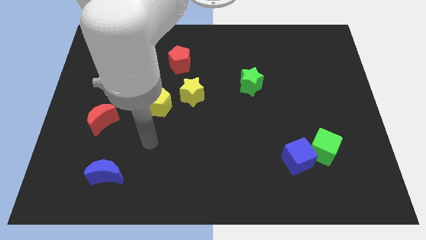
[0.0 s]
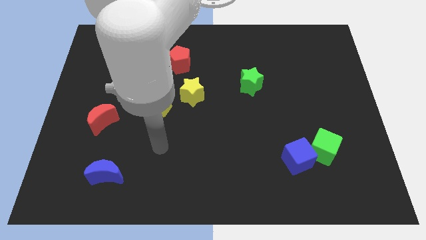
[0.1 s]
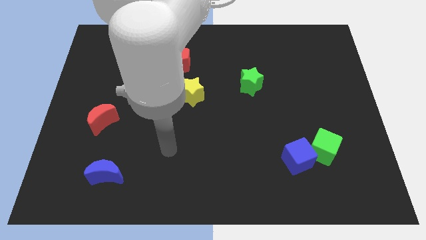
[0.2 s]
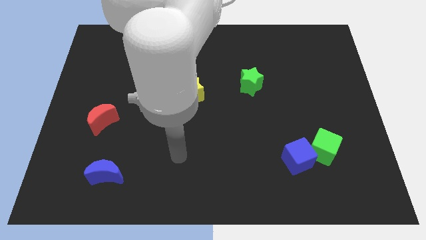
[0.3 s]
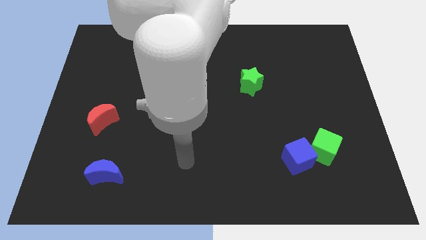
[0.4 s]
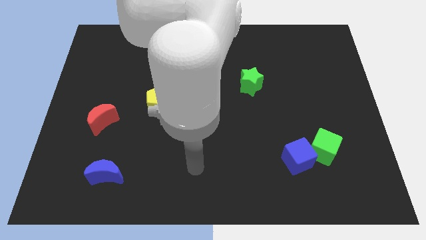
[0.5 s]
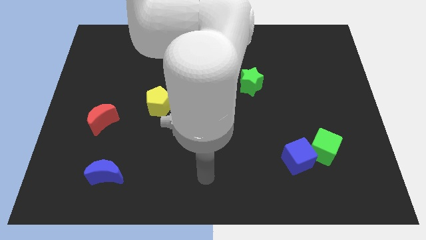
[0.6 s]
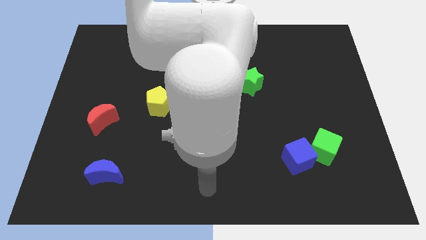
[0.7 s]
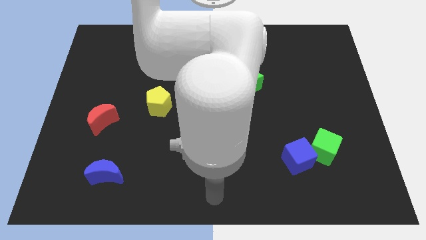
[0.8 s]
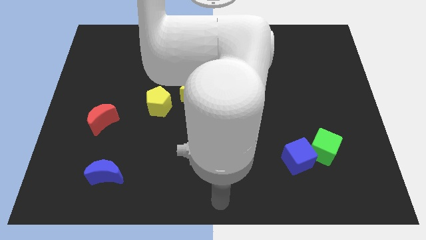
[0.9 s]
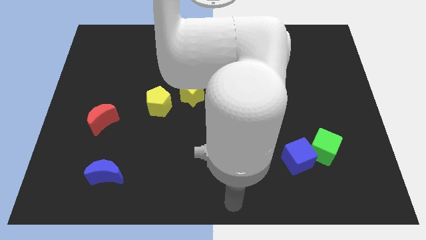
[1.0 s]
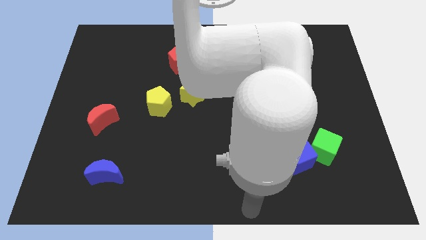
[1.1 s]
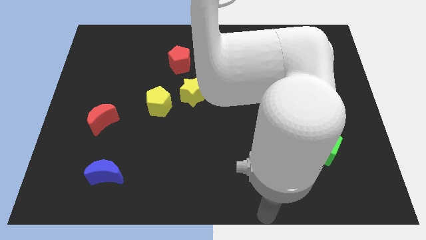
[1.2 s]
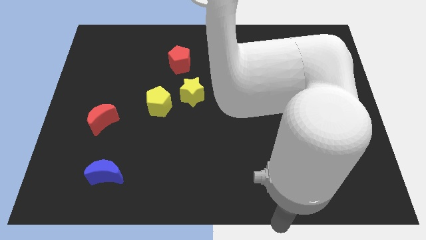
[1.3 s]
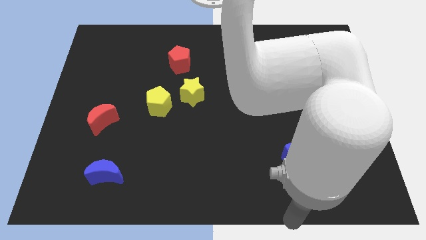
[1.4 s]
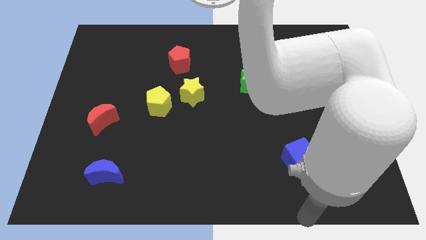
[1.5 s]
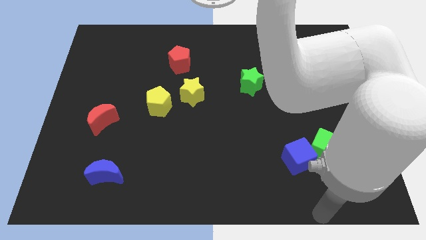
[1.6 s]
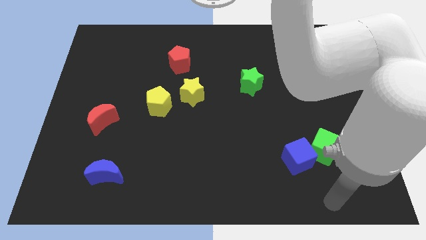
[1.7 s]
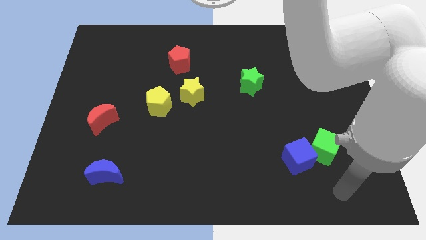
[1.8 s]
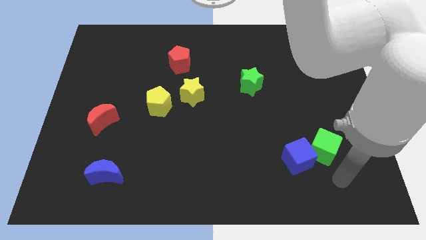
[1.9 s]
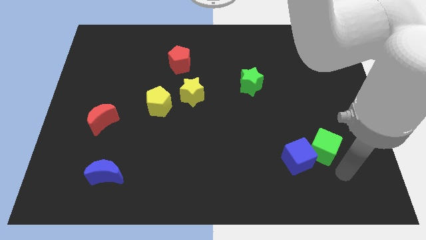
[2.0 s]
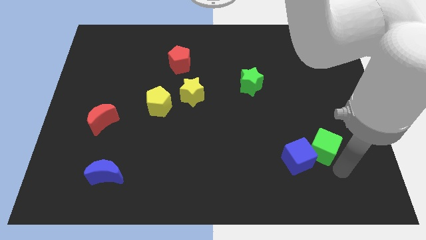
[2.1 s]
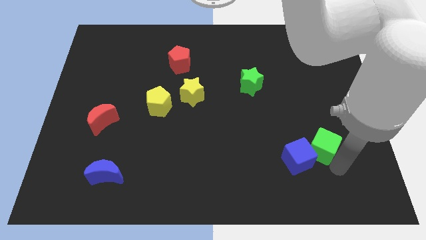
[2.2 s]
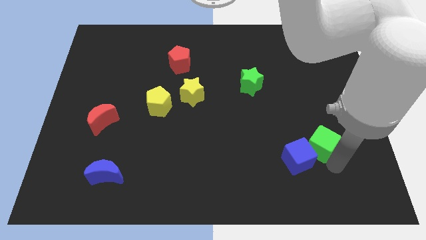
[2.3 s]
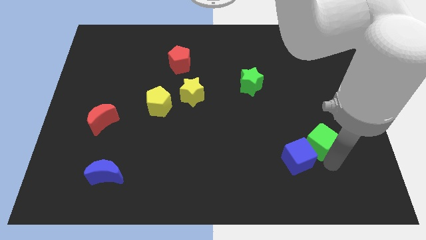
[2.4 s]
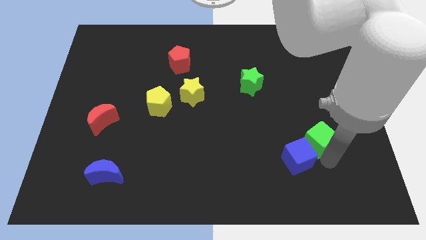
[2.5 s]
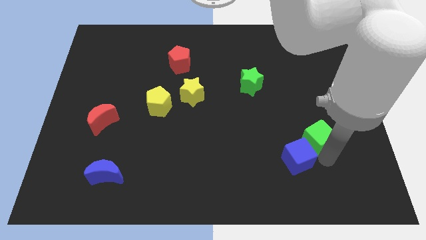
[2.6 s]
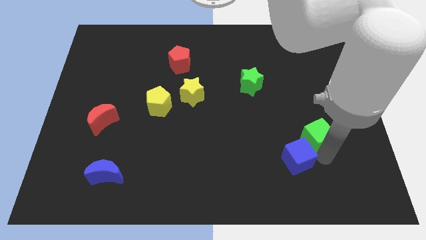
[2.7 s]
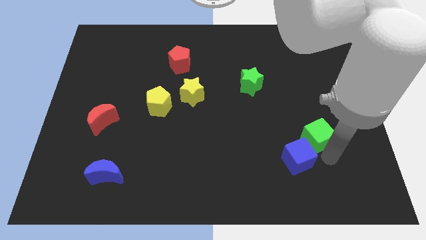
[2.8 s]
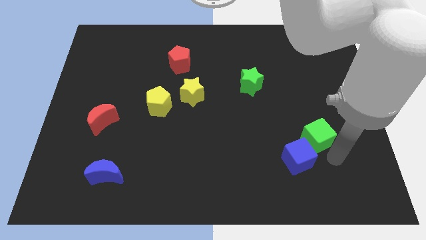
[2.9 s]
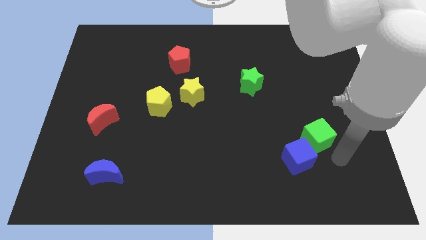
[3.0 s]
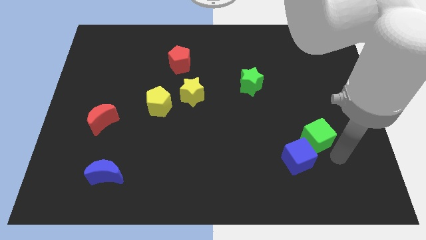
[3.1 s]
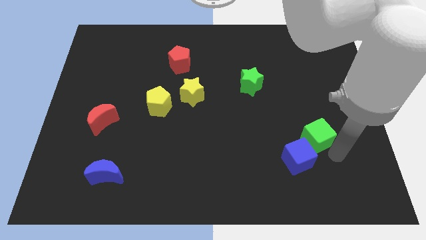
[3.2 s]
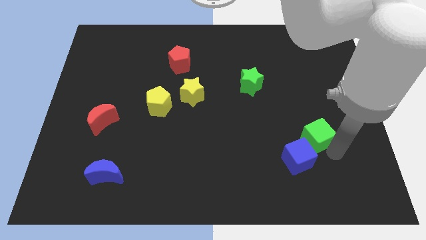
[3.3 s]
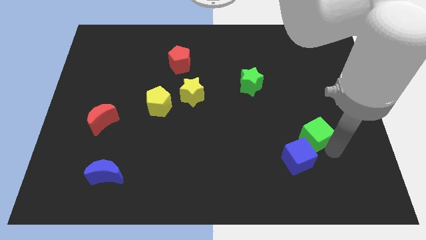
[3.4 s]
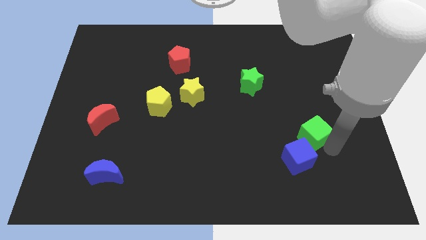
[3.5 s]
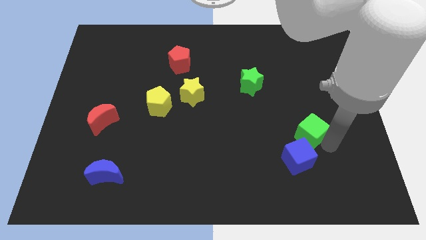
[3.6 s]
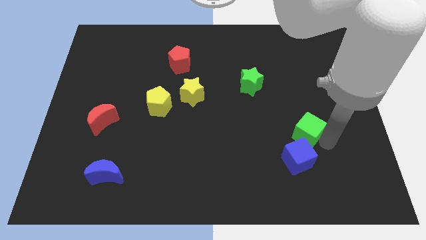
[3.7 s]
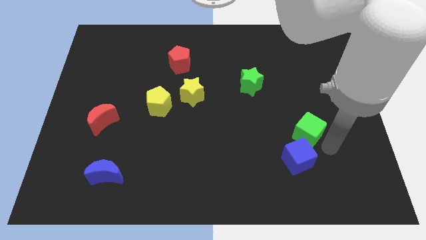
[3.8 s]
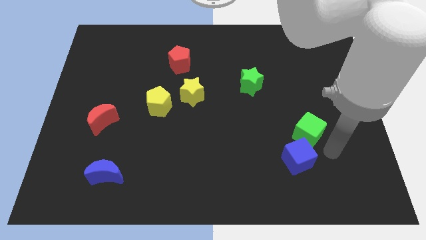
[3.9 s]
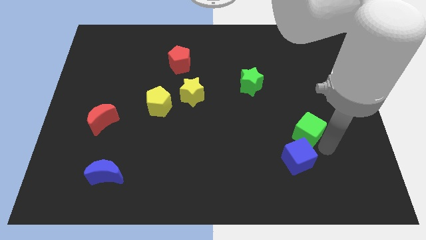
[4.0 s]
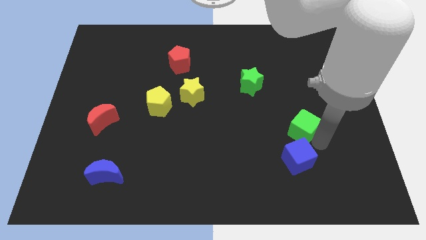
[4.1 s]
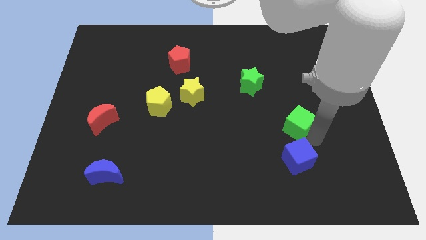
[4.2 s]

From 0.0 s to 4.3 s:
push the green cube a little bit up and then to the left

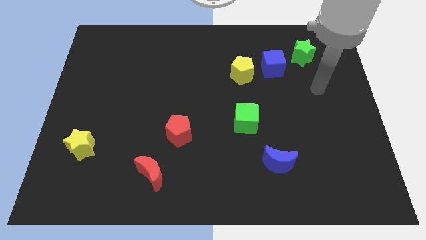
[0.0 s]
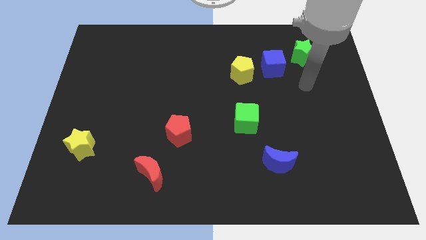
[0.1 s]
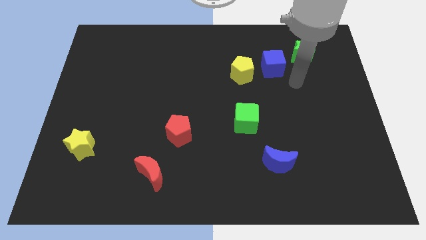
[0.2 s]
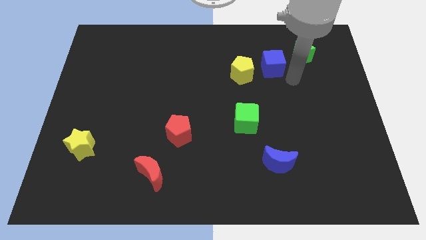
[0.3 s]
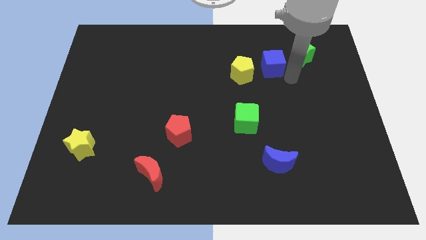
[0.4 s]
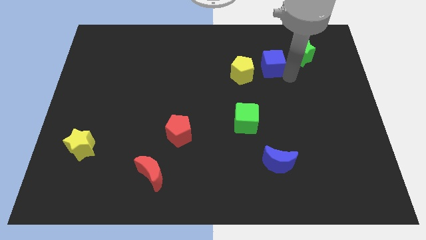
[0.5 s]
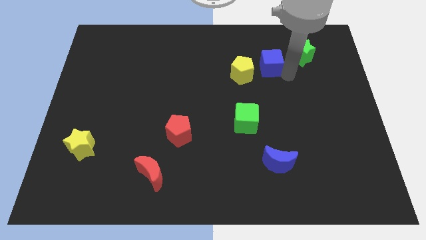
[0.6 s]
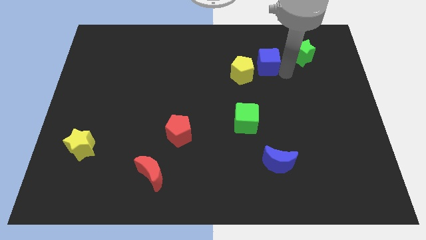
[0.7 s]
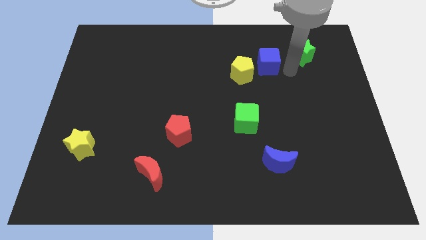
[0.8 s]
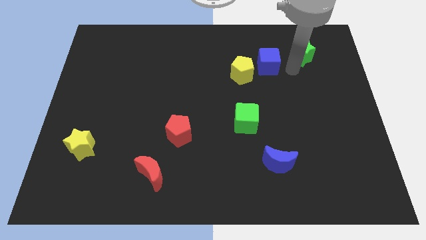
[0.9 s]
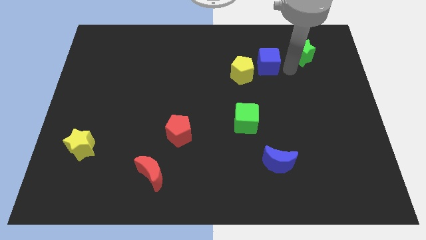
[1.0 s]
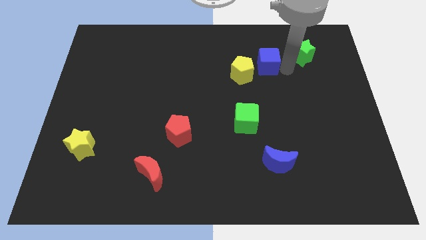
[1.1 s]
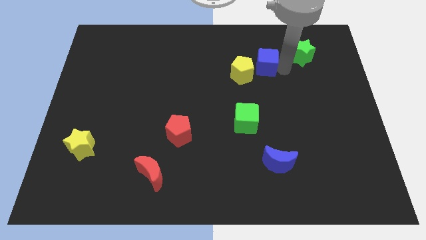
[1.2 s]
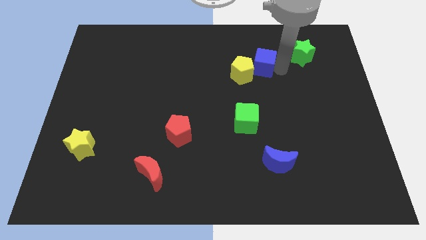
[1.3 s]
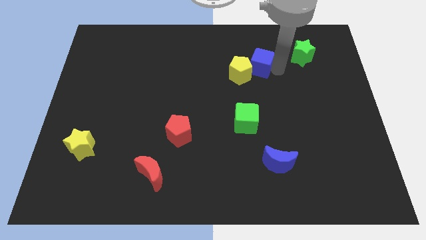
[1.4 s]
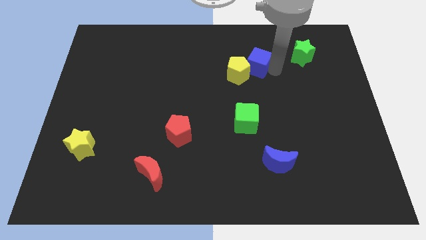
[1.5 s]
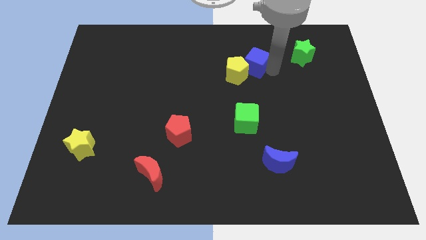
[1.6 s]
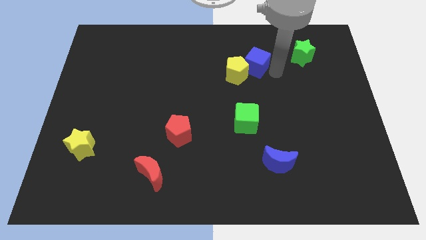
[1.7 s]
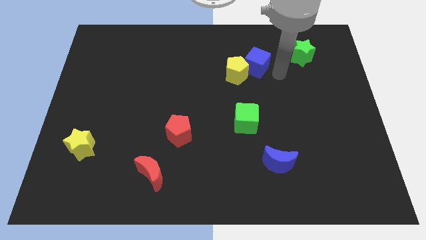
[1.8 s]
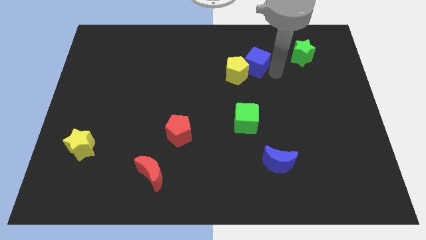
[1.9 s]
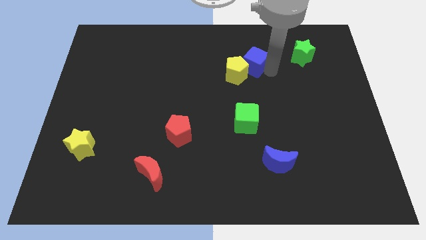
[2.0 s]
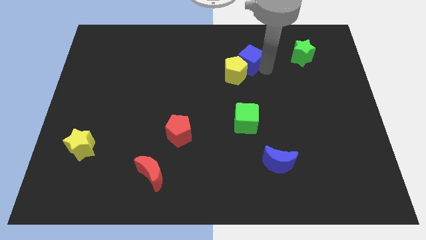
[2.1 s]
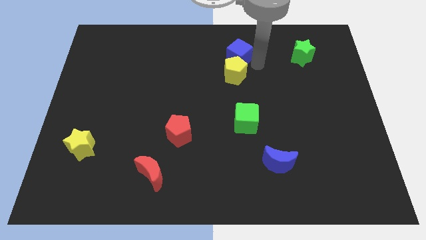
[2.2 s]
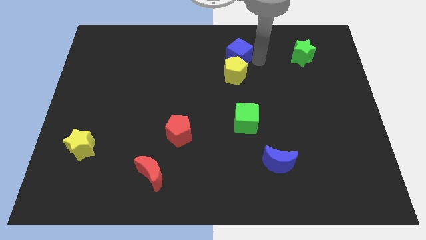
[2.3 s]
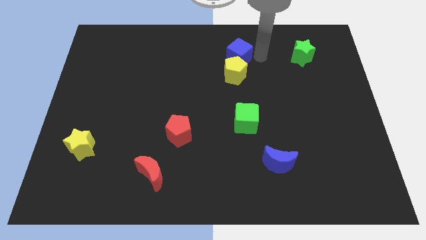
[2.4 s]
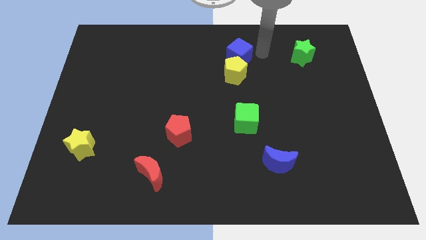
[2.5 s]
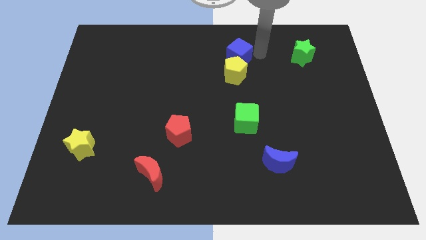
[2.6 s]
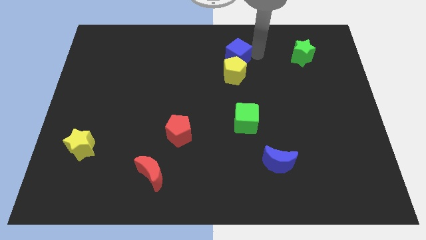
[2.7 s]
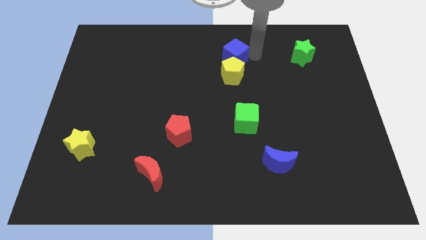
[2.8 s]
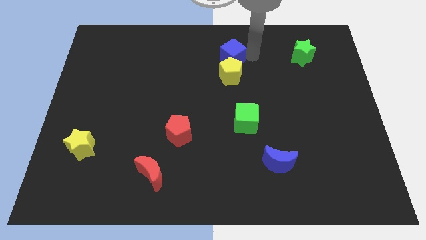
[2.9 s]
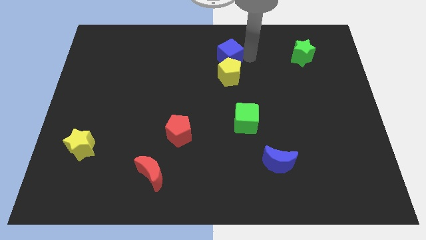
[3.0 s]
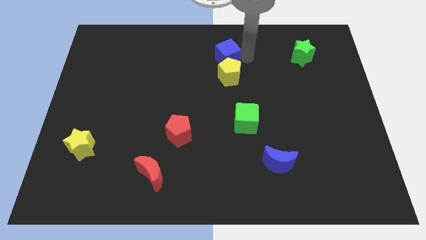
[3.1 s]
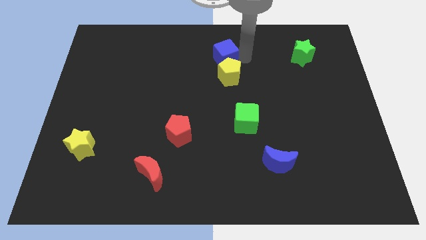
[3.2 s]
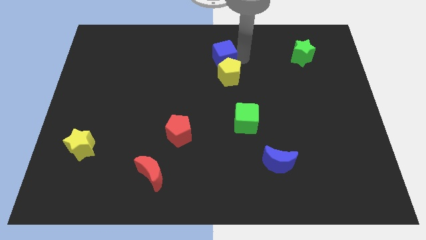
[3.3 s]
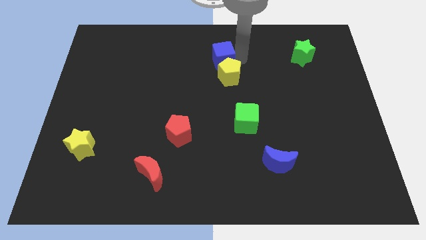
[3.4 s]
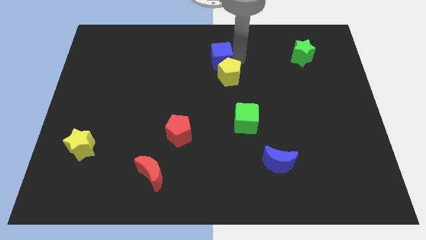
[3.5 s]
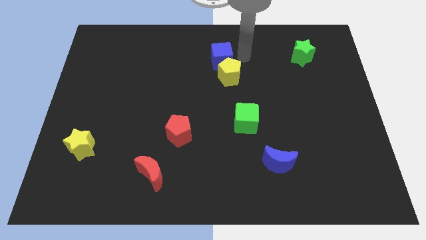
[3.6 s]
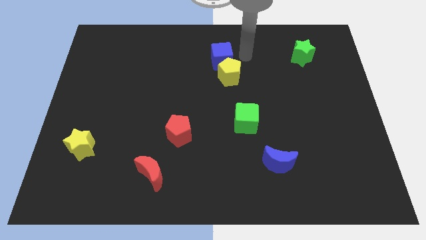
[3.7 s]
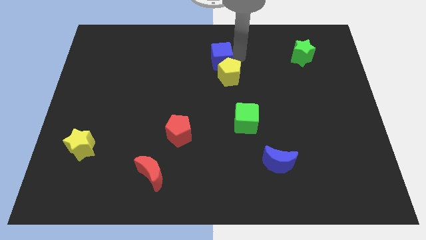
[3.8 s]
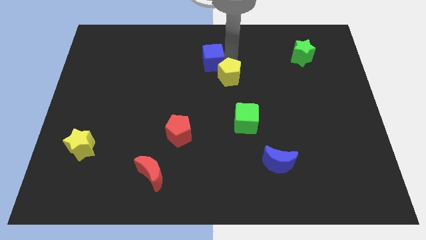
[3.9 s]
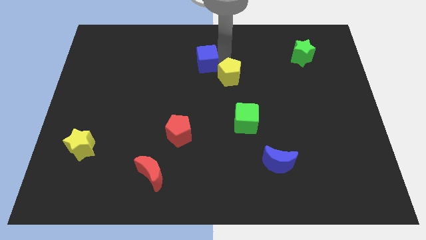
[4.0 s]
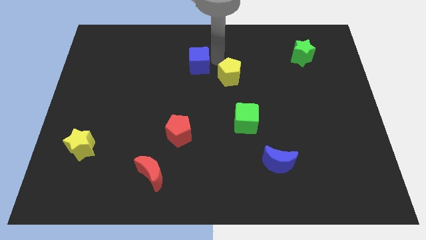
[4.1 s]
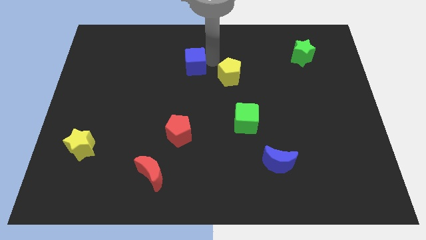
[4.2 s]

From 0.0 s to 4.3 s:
slide the blue cube left
